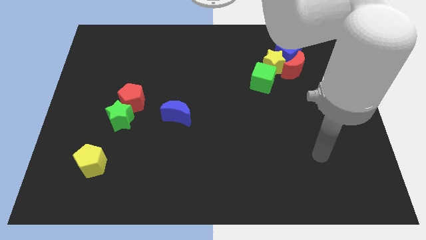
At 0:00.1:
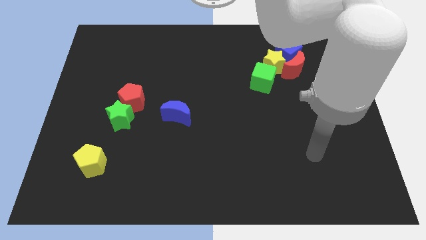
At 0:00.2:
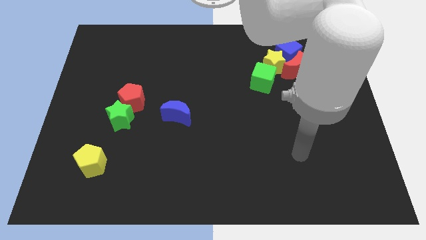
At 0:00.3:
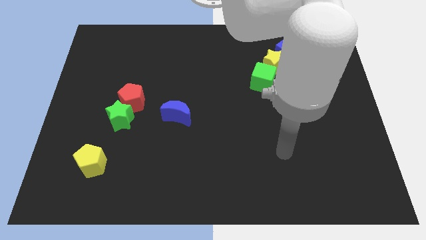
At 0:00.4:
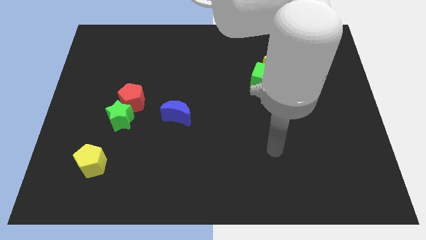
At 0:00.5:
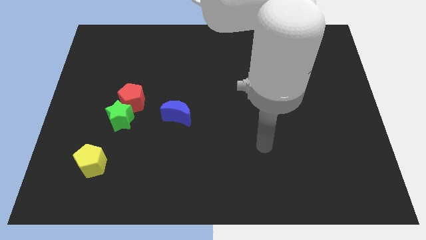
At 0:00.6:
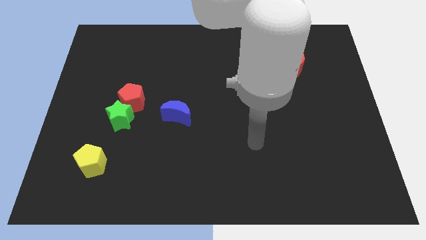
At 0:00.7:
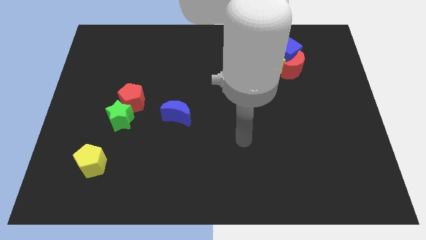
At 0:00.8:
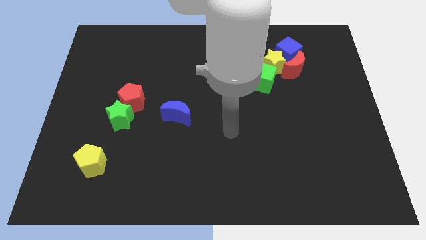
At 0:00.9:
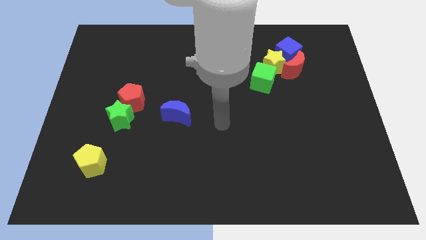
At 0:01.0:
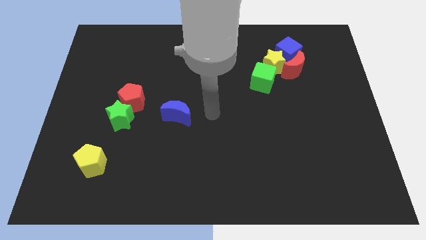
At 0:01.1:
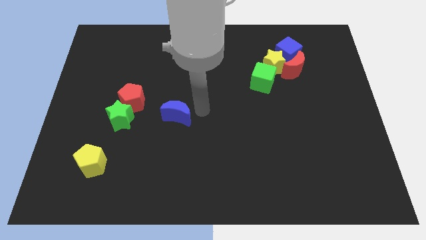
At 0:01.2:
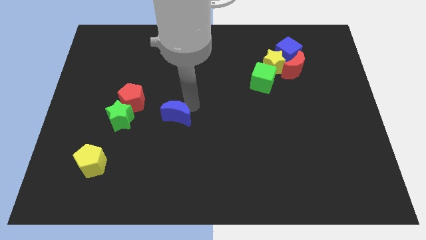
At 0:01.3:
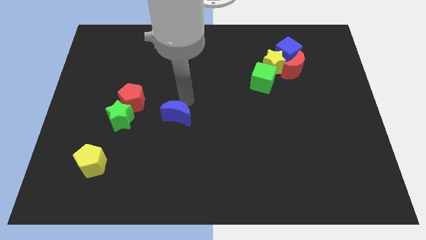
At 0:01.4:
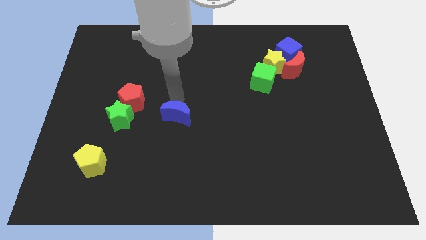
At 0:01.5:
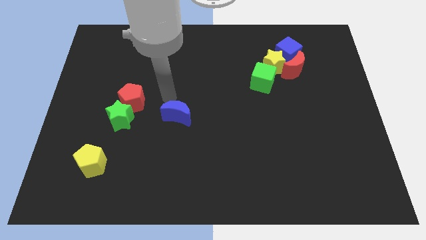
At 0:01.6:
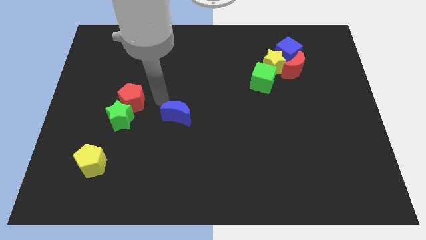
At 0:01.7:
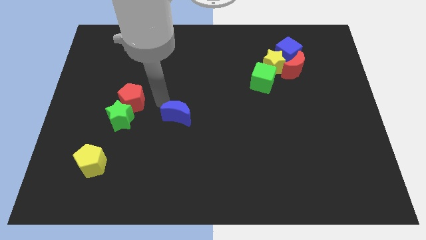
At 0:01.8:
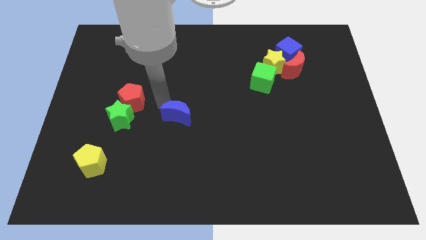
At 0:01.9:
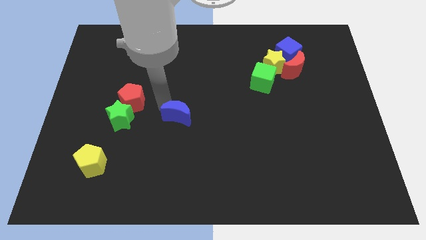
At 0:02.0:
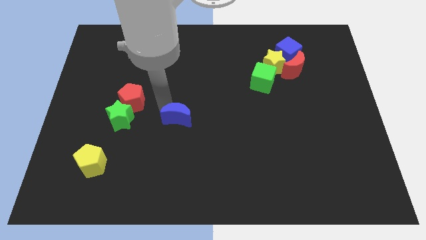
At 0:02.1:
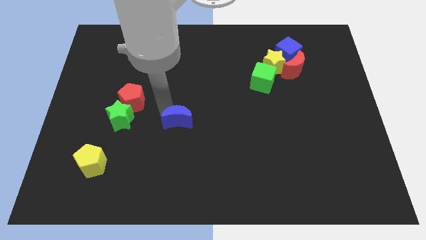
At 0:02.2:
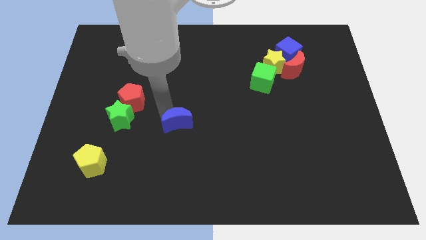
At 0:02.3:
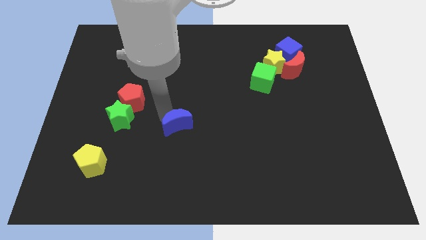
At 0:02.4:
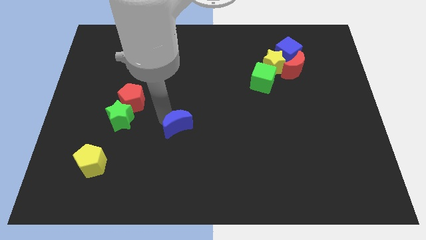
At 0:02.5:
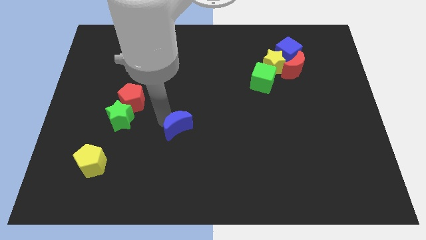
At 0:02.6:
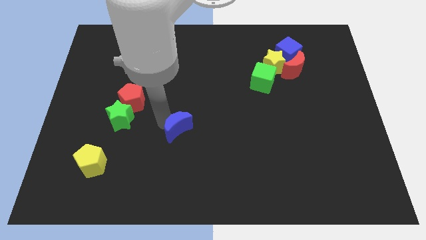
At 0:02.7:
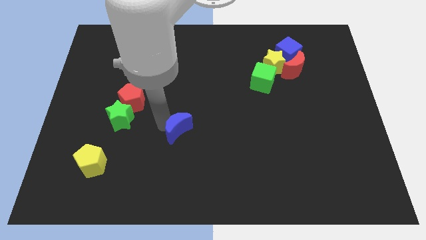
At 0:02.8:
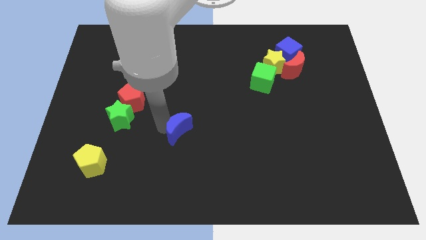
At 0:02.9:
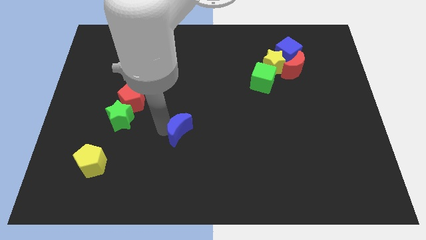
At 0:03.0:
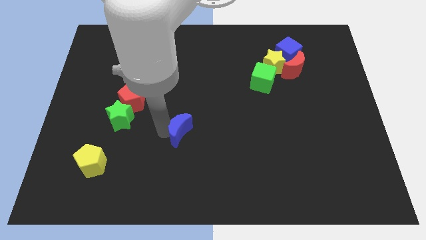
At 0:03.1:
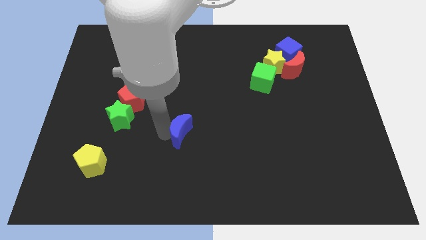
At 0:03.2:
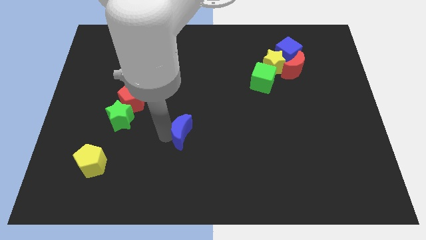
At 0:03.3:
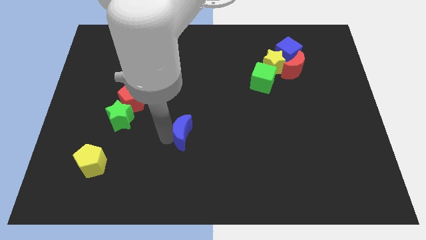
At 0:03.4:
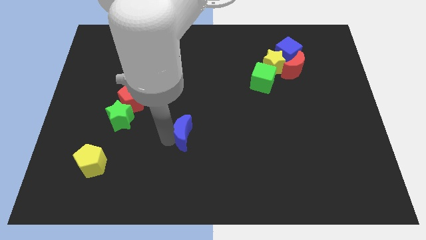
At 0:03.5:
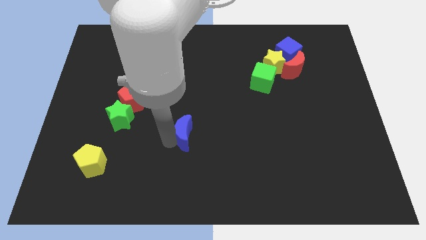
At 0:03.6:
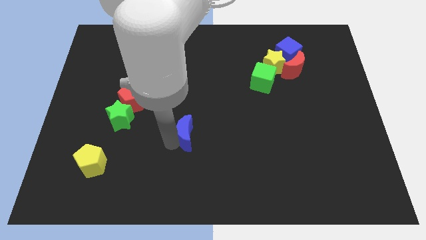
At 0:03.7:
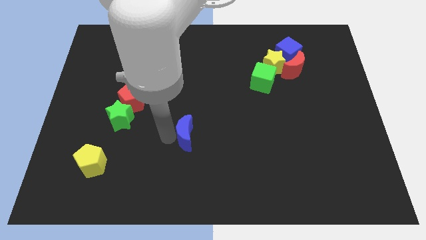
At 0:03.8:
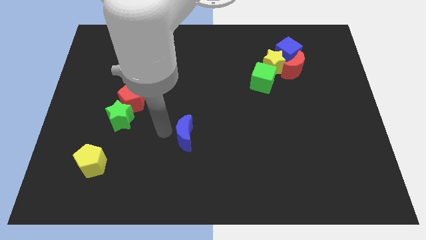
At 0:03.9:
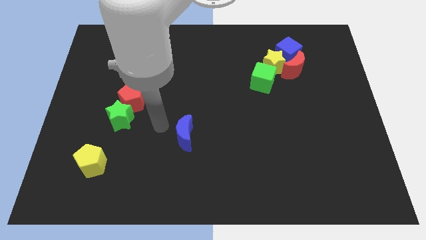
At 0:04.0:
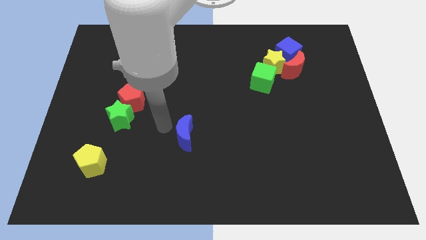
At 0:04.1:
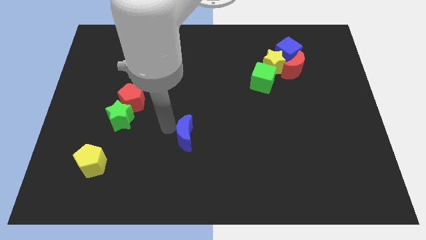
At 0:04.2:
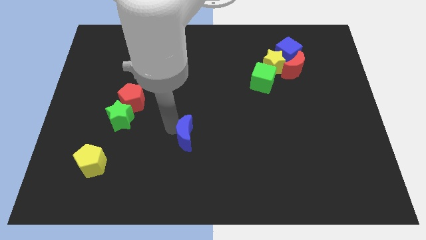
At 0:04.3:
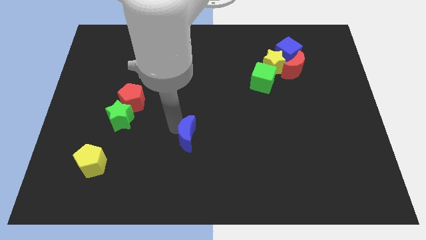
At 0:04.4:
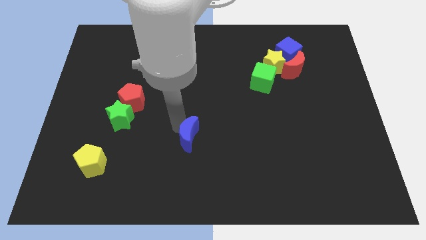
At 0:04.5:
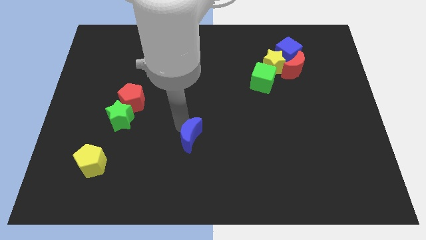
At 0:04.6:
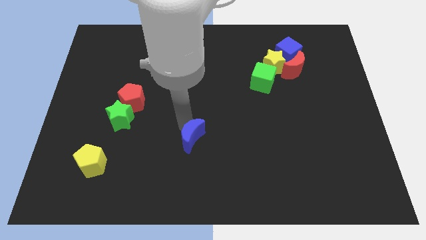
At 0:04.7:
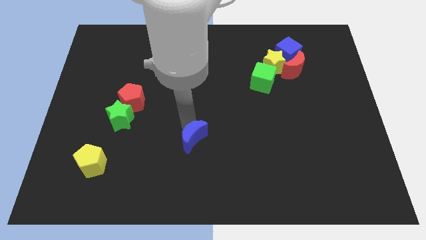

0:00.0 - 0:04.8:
push the blue moon downwards and to the right a little bit

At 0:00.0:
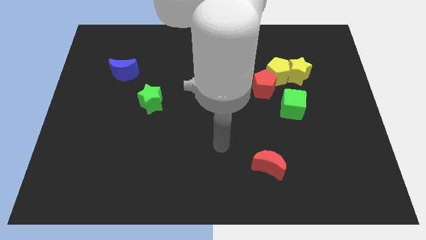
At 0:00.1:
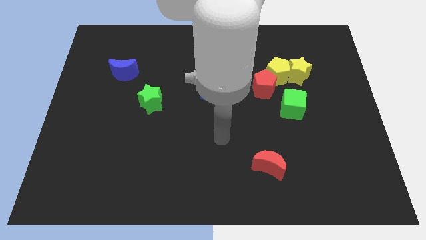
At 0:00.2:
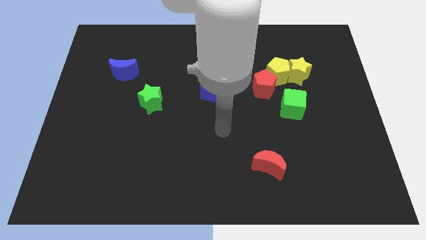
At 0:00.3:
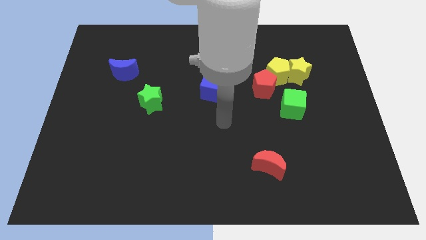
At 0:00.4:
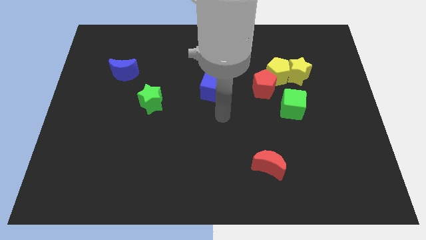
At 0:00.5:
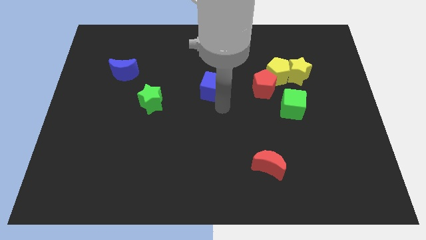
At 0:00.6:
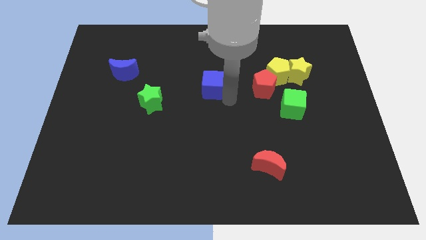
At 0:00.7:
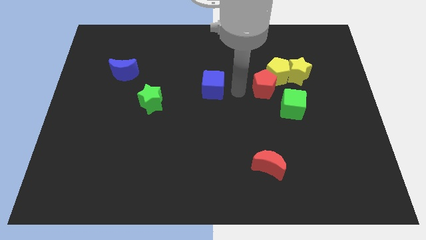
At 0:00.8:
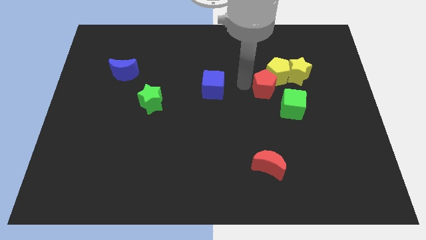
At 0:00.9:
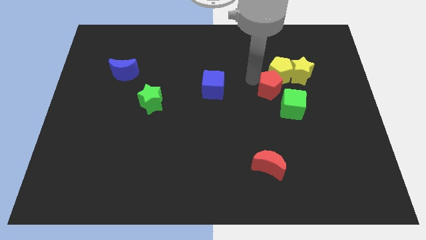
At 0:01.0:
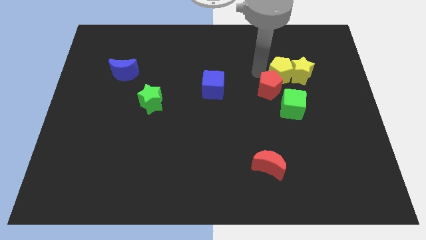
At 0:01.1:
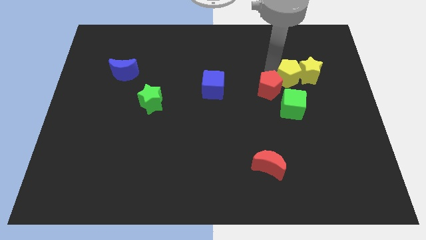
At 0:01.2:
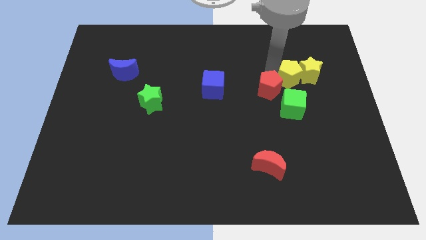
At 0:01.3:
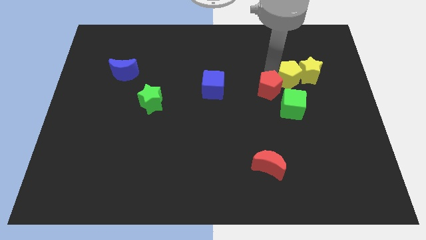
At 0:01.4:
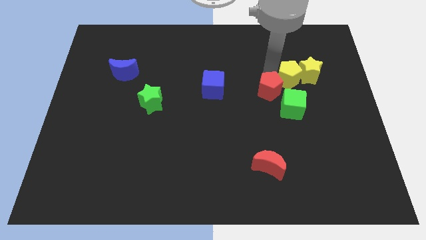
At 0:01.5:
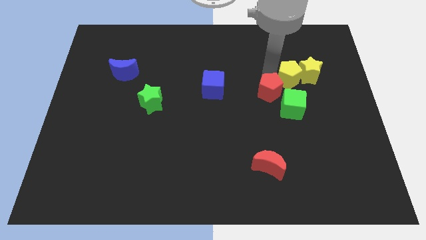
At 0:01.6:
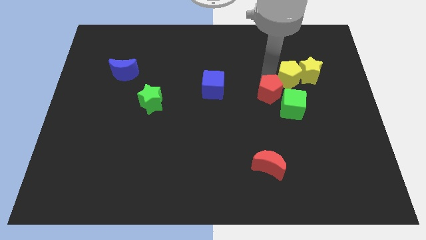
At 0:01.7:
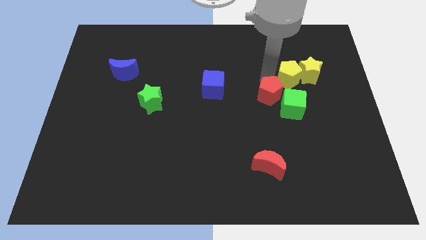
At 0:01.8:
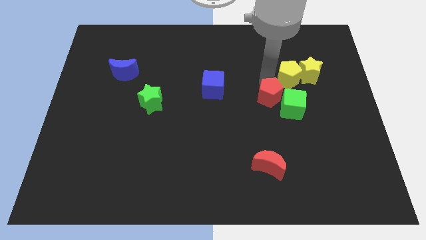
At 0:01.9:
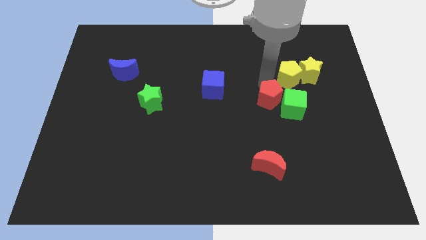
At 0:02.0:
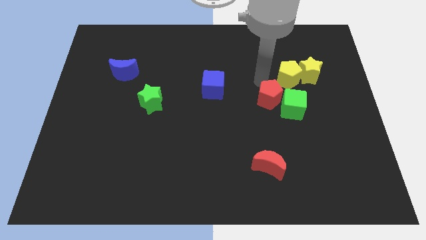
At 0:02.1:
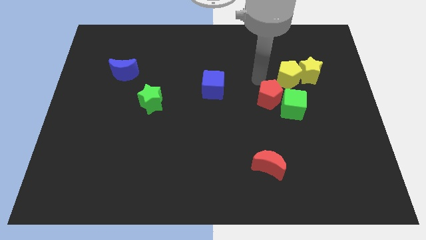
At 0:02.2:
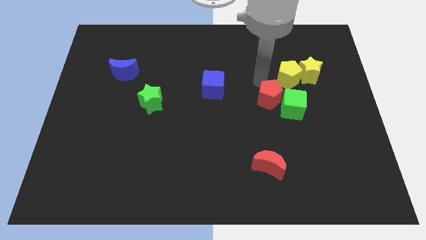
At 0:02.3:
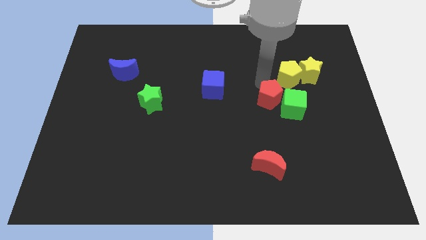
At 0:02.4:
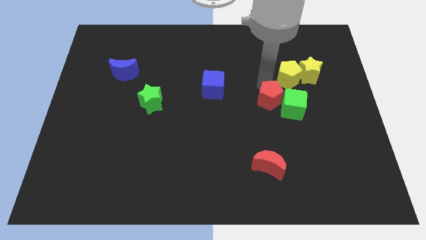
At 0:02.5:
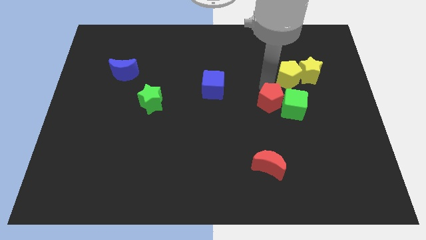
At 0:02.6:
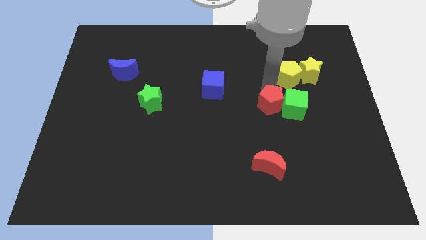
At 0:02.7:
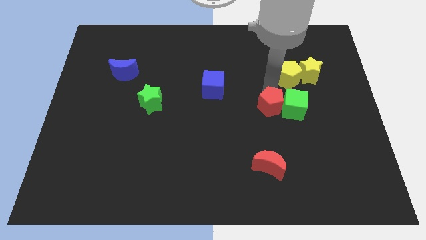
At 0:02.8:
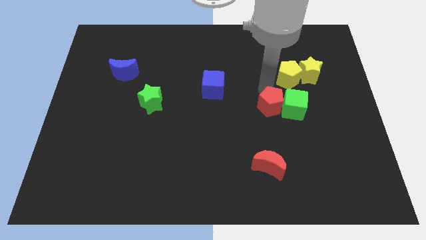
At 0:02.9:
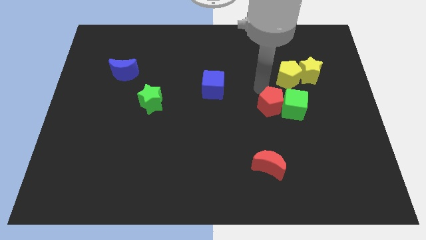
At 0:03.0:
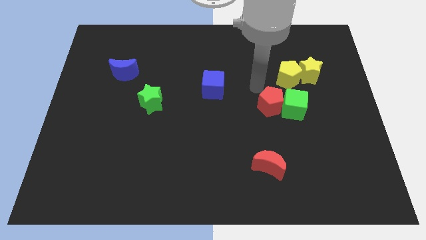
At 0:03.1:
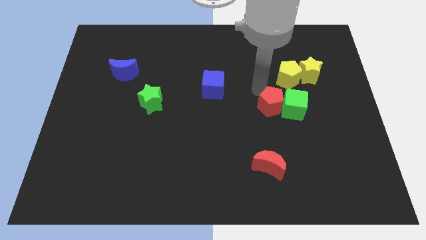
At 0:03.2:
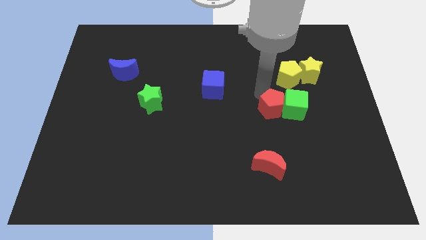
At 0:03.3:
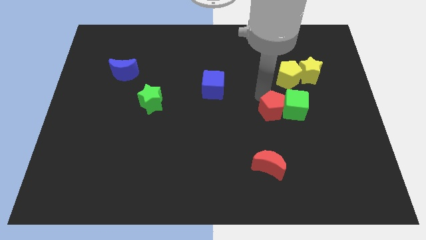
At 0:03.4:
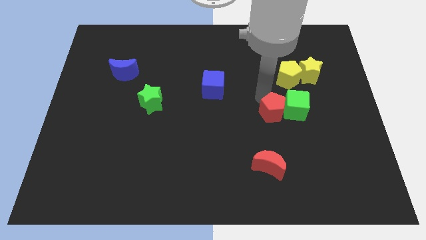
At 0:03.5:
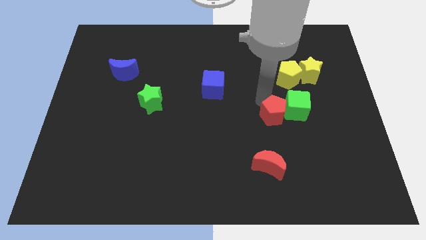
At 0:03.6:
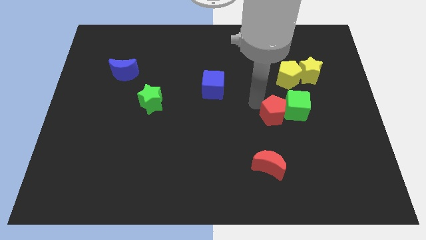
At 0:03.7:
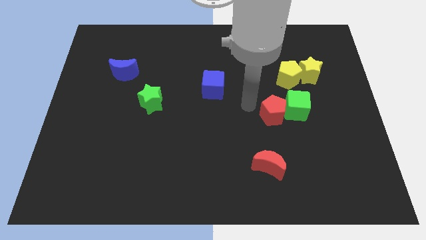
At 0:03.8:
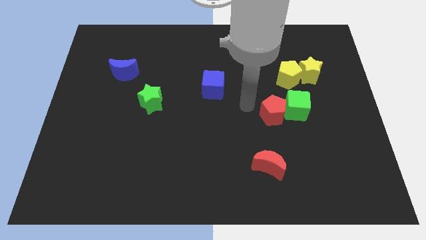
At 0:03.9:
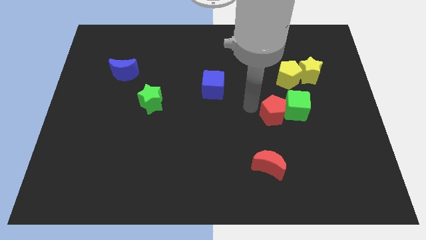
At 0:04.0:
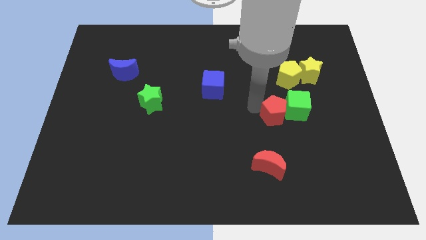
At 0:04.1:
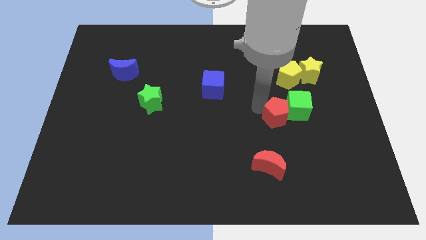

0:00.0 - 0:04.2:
slightly move the red pentagon down and then right
